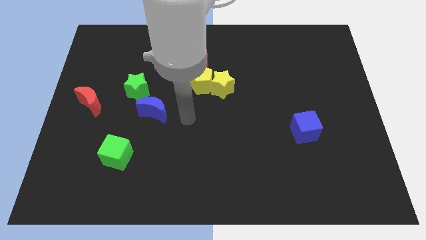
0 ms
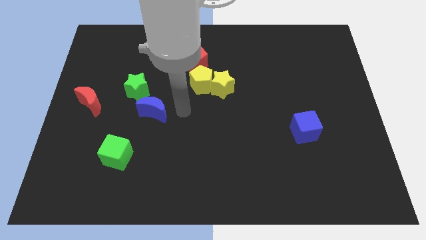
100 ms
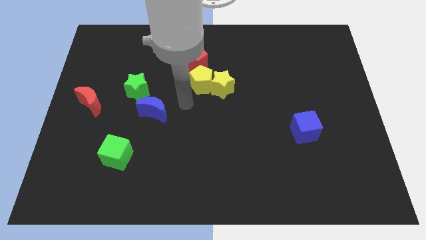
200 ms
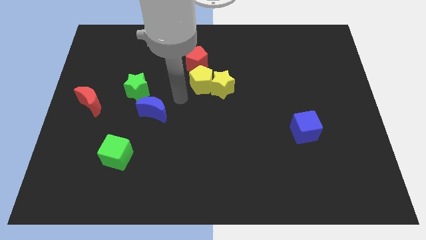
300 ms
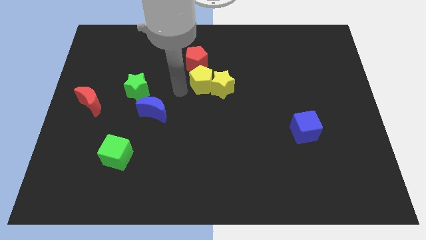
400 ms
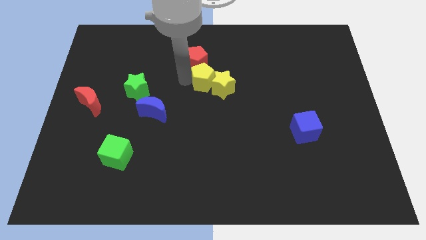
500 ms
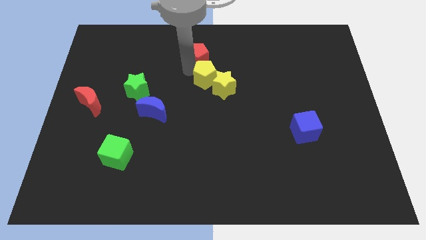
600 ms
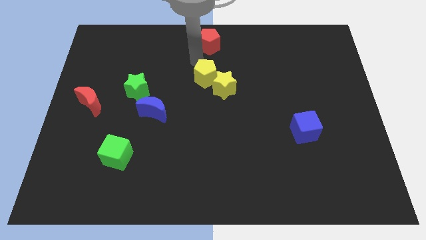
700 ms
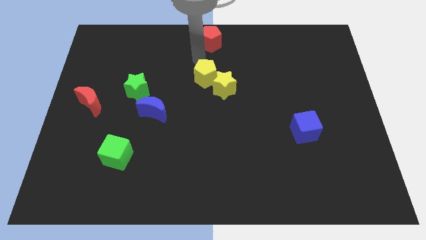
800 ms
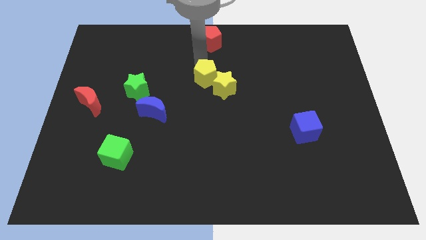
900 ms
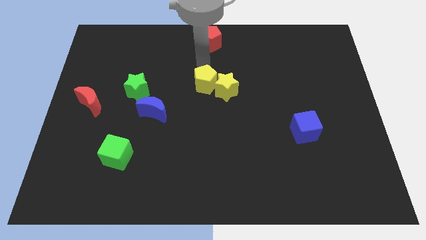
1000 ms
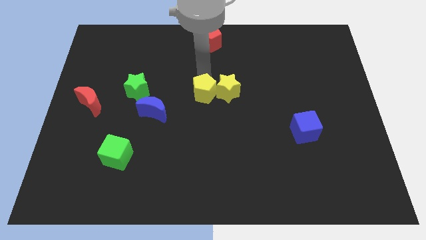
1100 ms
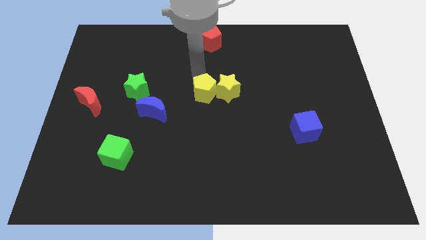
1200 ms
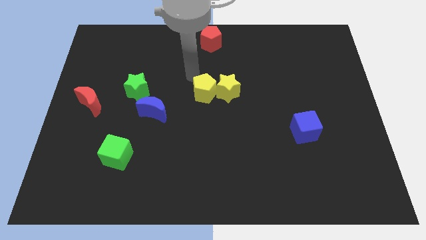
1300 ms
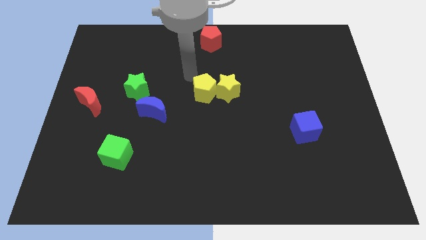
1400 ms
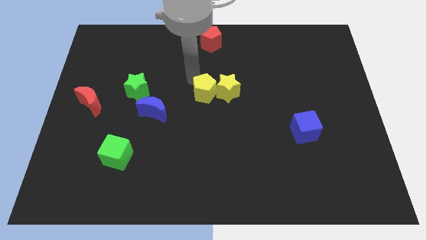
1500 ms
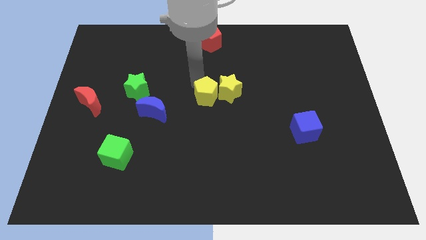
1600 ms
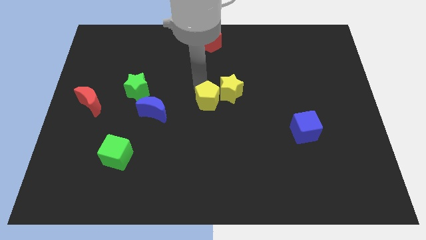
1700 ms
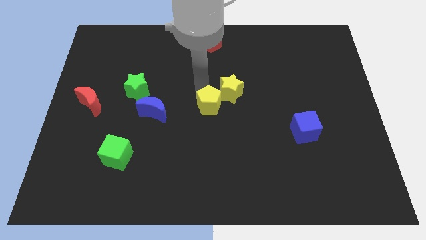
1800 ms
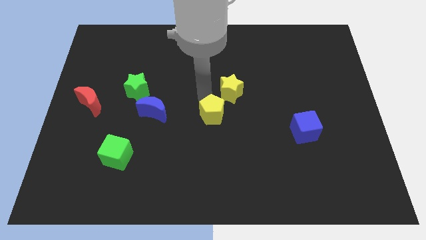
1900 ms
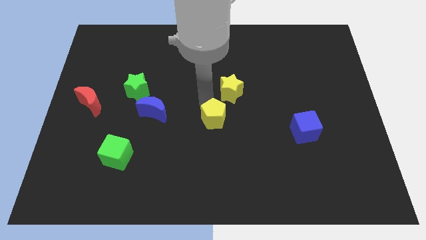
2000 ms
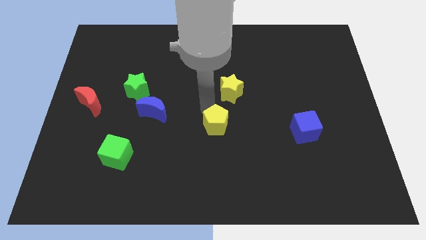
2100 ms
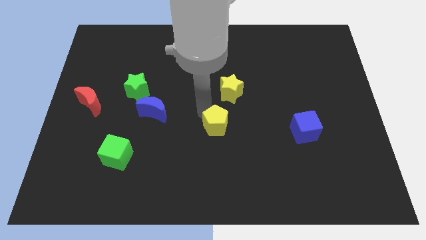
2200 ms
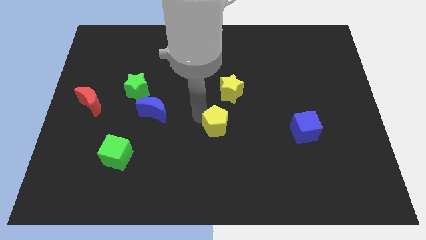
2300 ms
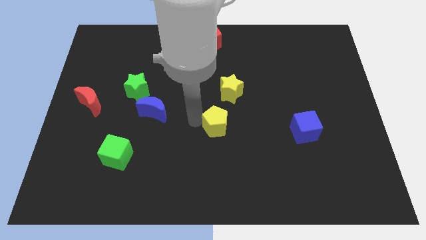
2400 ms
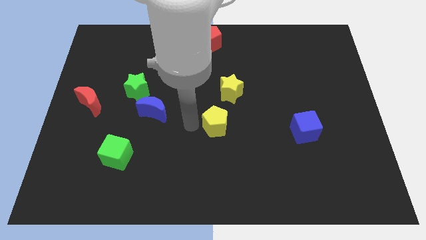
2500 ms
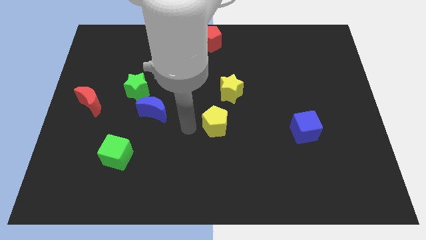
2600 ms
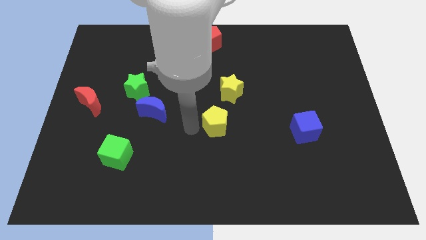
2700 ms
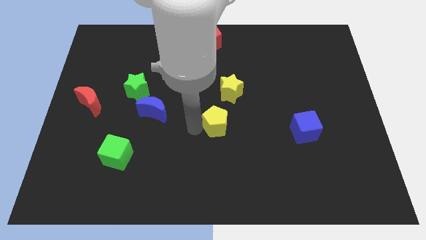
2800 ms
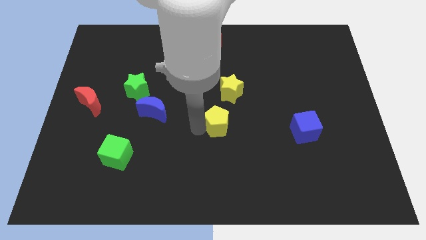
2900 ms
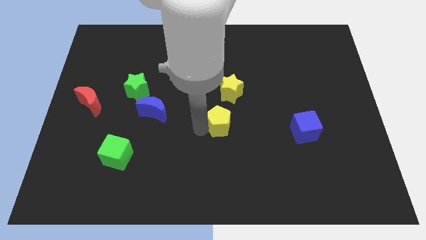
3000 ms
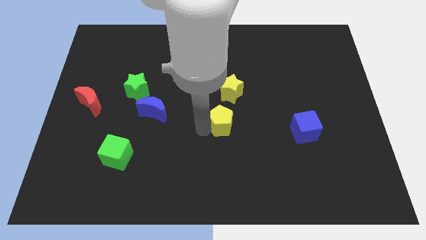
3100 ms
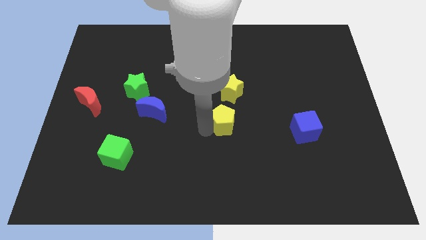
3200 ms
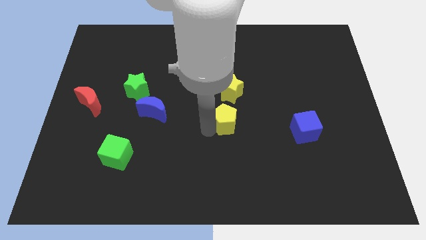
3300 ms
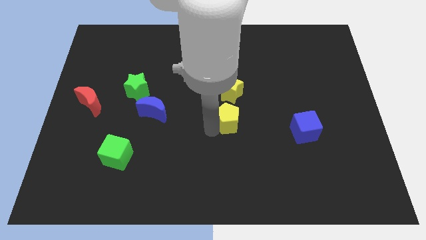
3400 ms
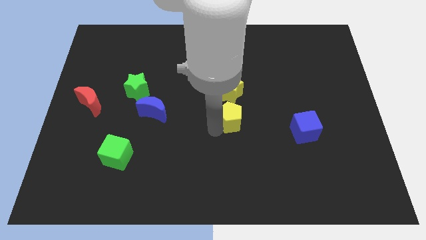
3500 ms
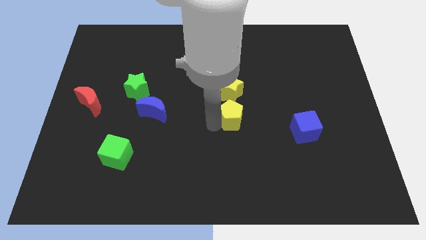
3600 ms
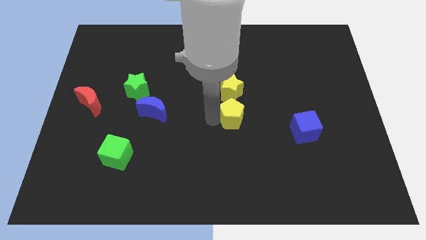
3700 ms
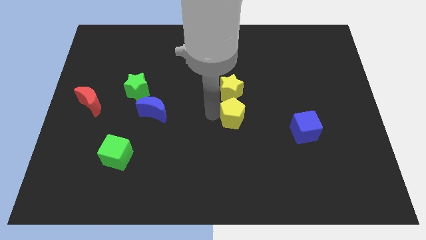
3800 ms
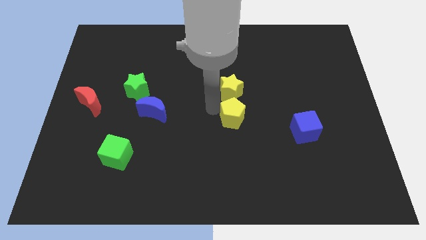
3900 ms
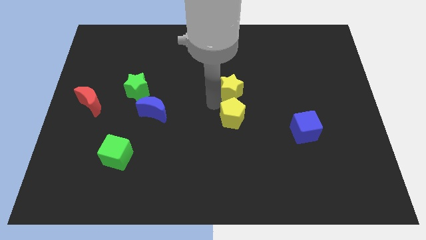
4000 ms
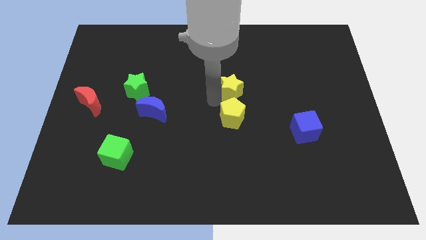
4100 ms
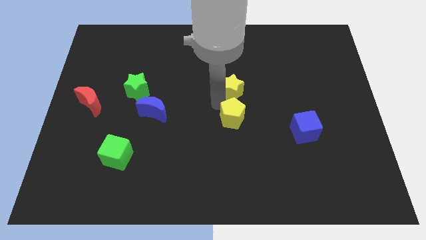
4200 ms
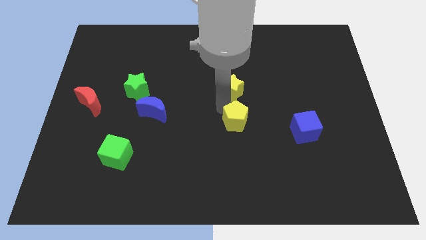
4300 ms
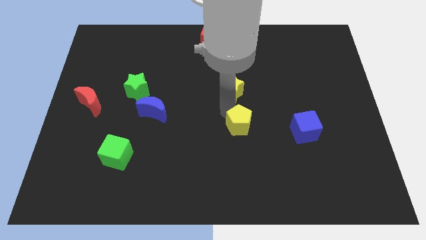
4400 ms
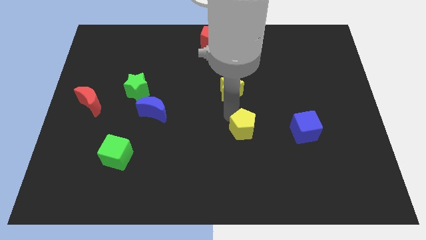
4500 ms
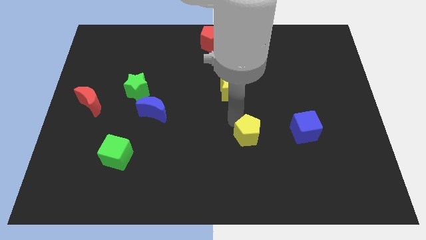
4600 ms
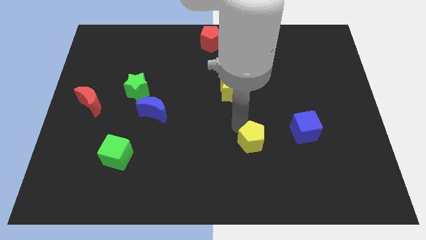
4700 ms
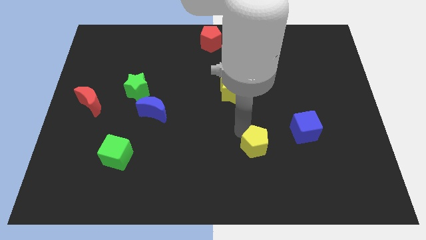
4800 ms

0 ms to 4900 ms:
move the yellow pentagon down and then to the right

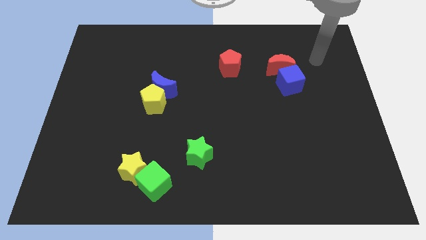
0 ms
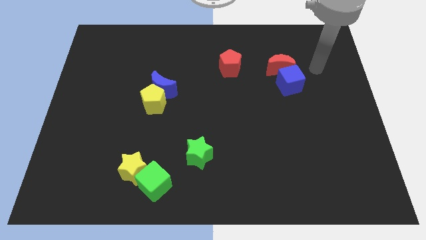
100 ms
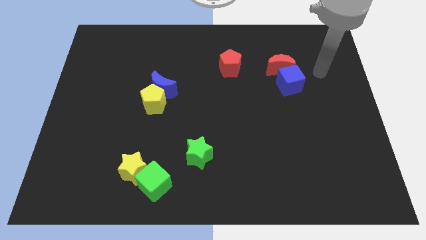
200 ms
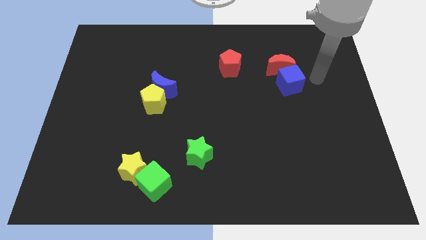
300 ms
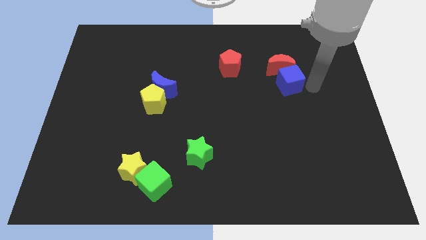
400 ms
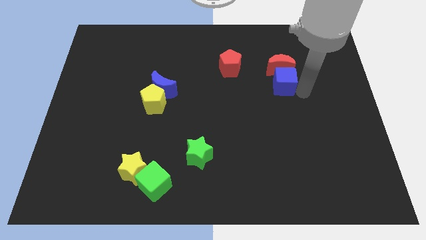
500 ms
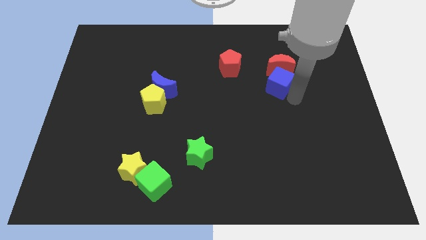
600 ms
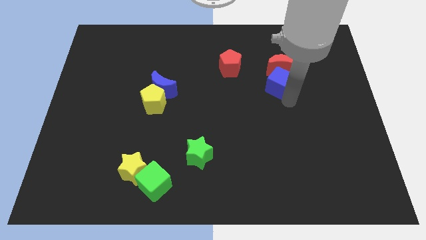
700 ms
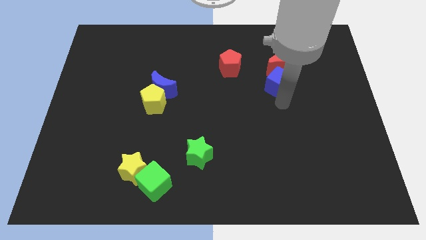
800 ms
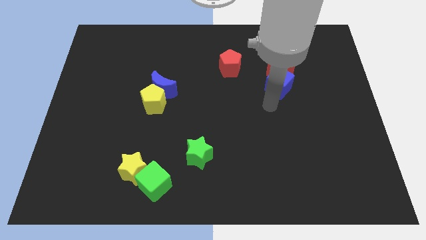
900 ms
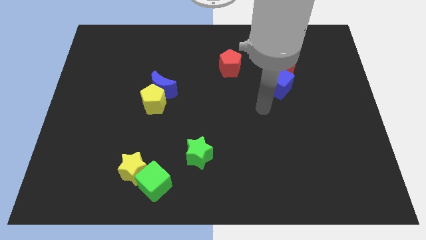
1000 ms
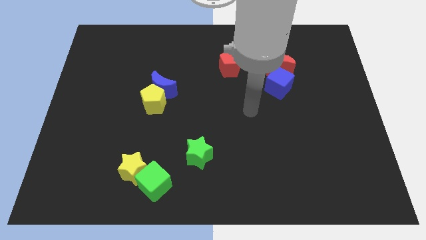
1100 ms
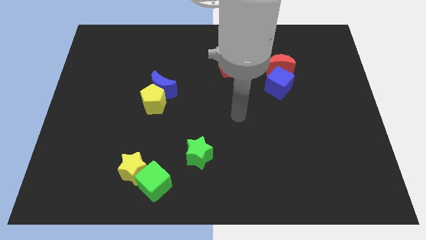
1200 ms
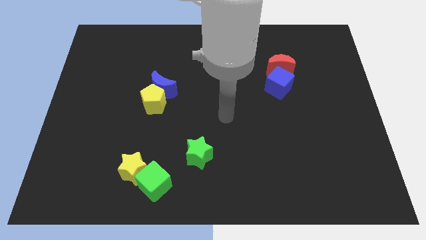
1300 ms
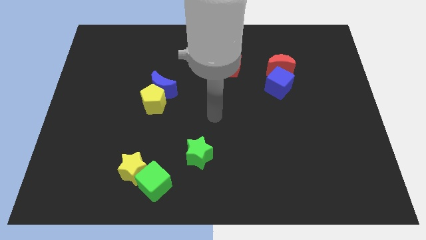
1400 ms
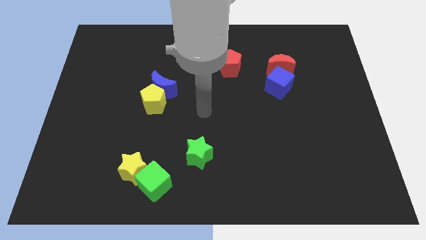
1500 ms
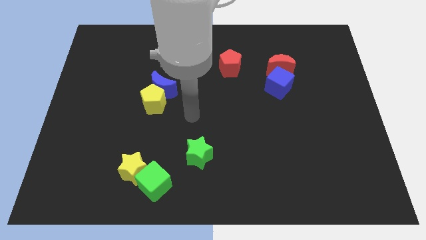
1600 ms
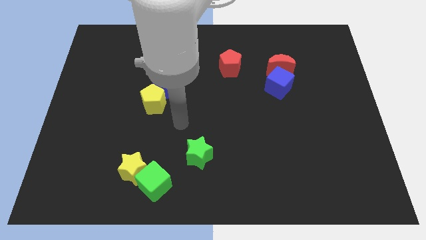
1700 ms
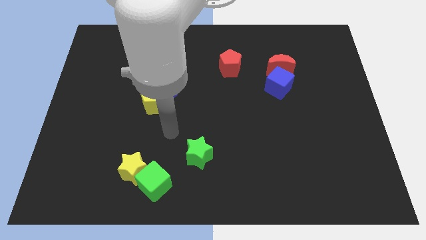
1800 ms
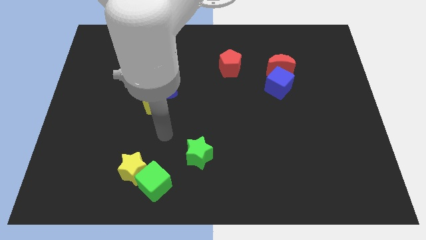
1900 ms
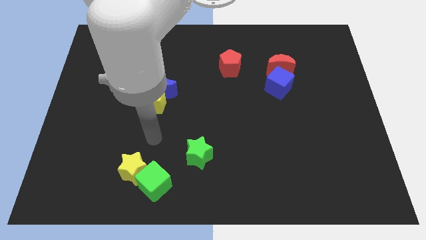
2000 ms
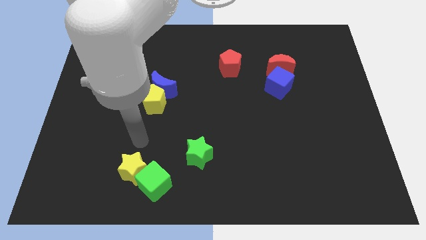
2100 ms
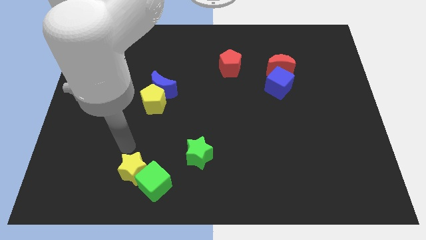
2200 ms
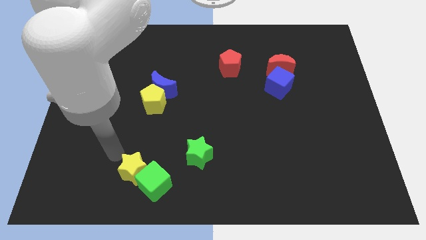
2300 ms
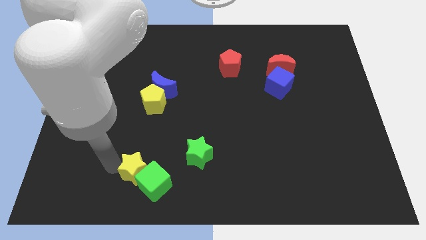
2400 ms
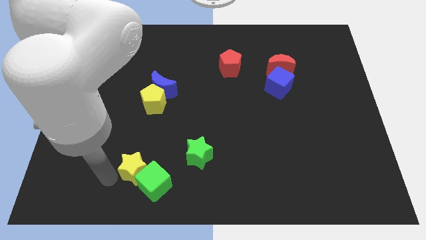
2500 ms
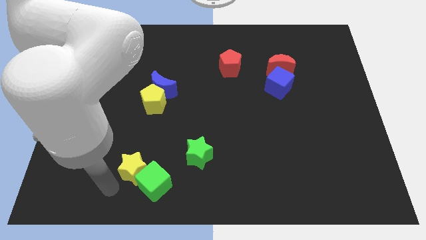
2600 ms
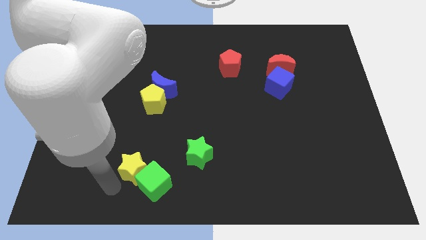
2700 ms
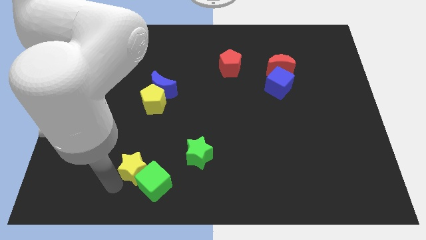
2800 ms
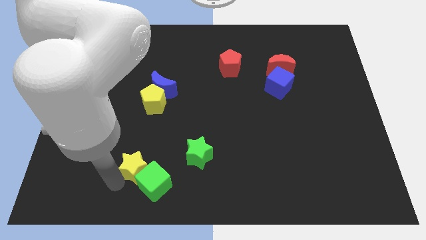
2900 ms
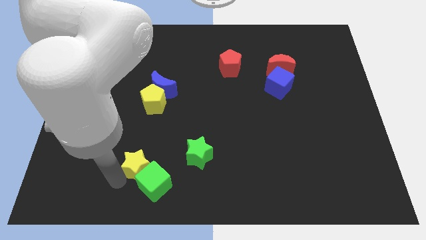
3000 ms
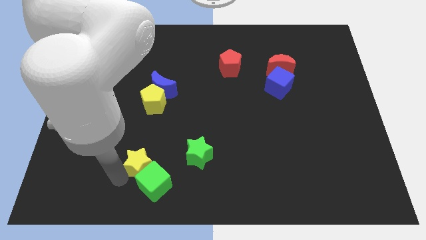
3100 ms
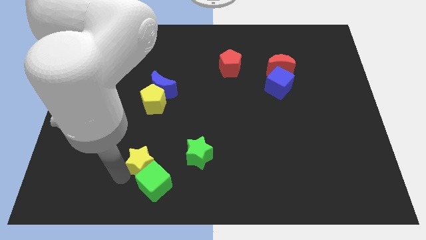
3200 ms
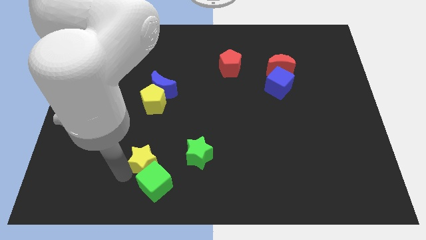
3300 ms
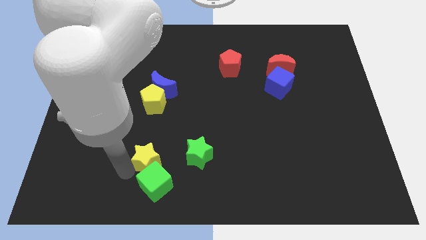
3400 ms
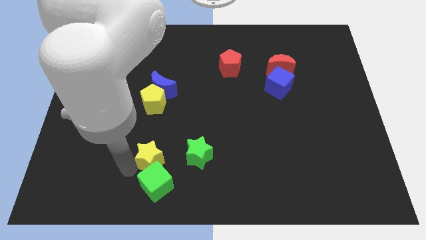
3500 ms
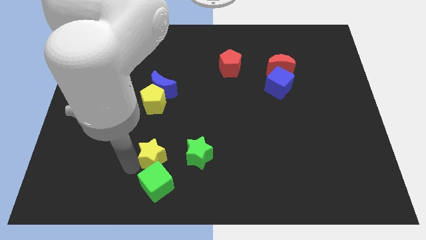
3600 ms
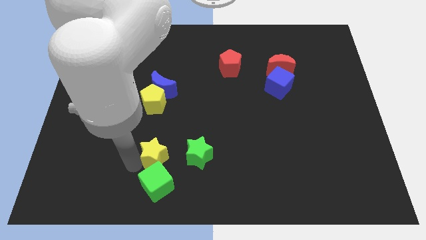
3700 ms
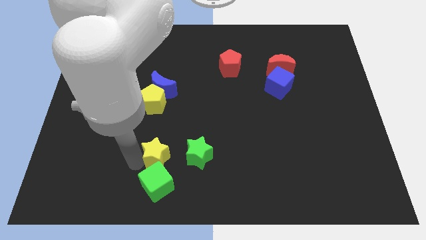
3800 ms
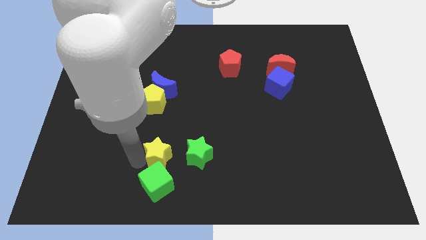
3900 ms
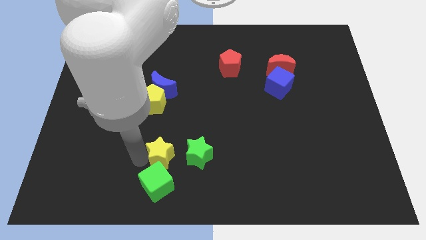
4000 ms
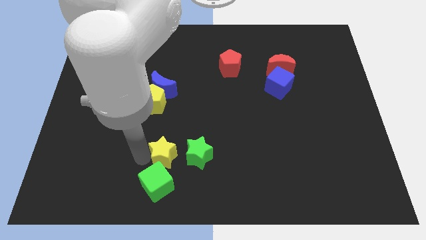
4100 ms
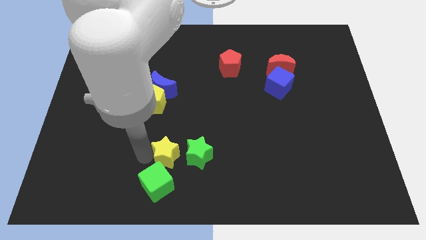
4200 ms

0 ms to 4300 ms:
push the yellow star a little up and then to the right
